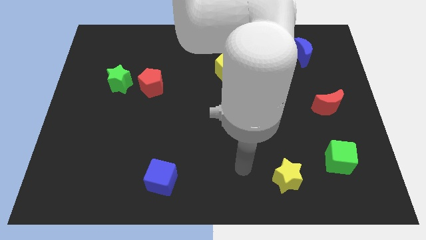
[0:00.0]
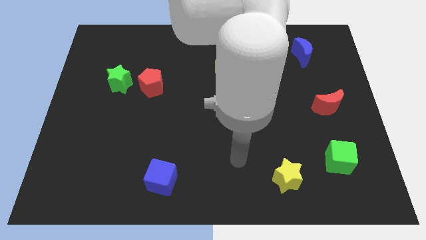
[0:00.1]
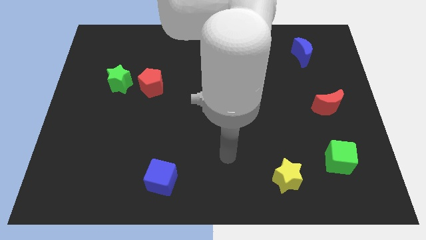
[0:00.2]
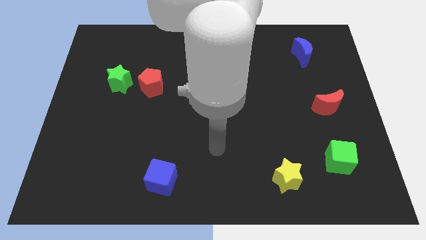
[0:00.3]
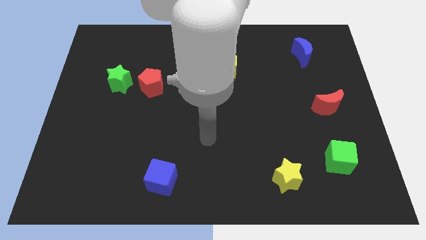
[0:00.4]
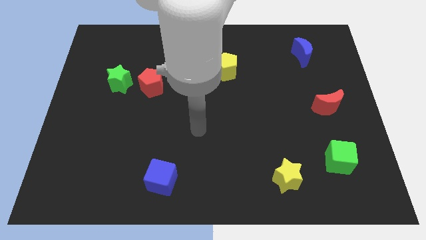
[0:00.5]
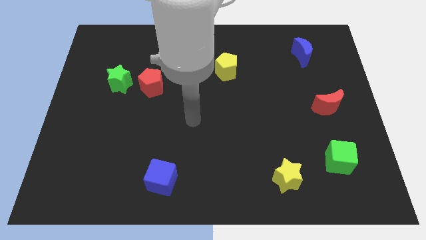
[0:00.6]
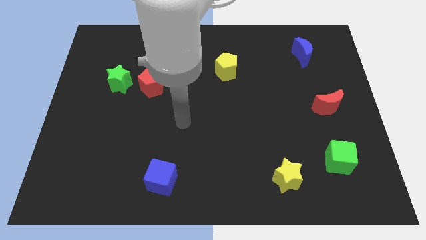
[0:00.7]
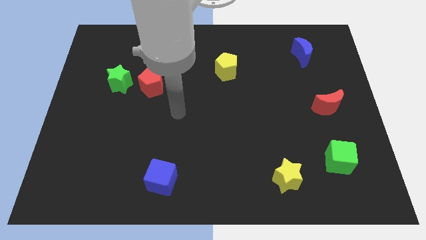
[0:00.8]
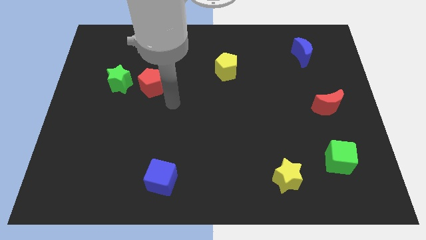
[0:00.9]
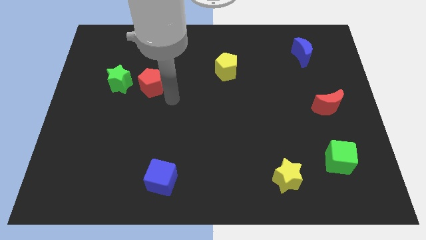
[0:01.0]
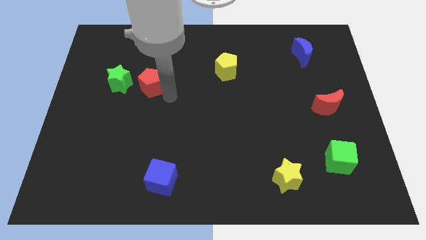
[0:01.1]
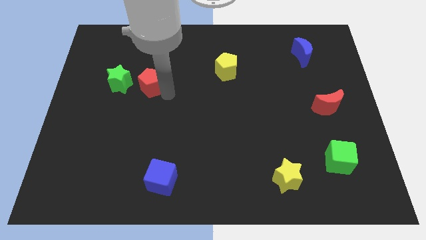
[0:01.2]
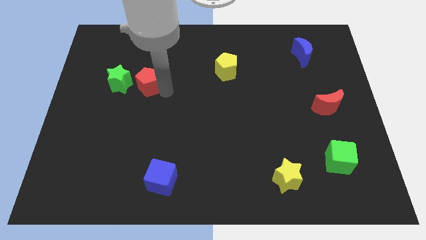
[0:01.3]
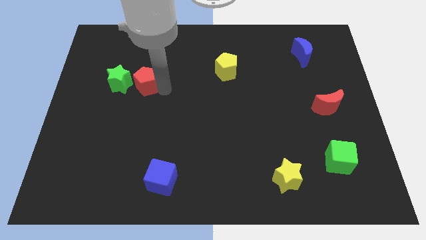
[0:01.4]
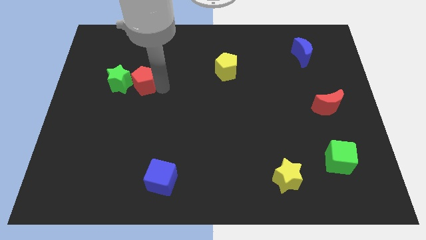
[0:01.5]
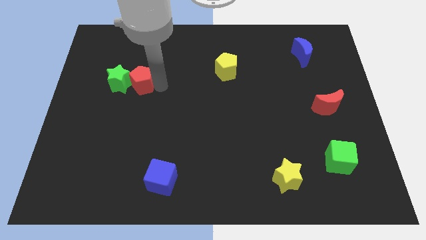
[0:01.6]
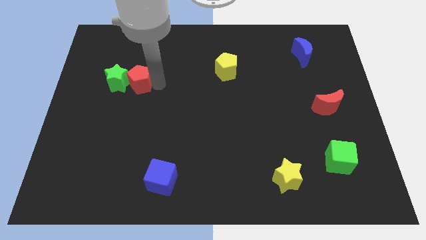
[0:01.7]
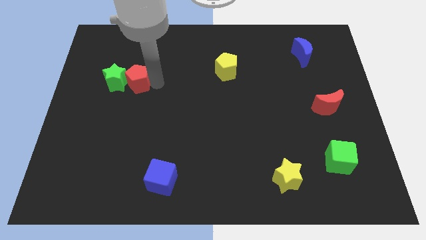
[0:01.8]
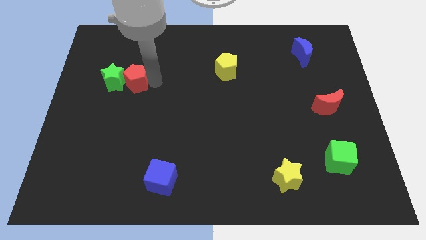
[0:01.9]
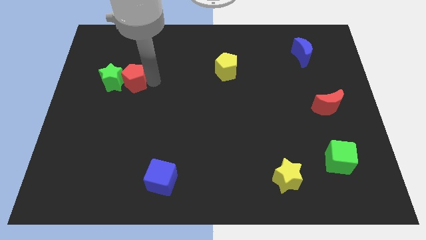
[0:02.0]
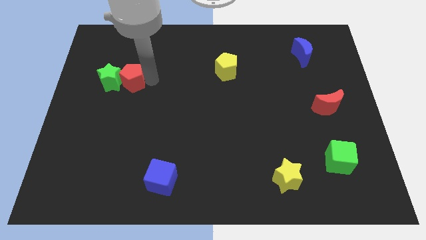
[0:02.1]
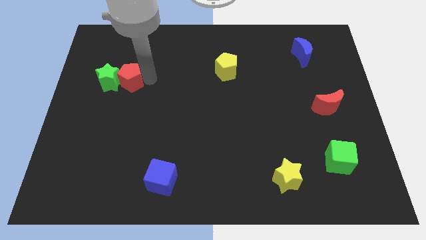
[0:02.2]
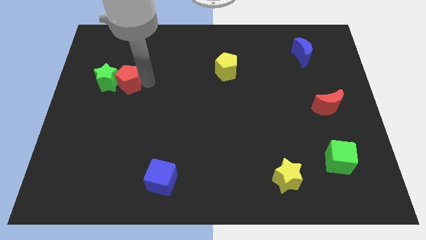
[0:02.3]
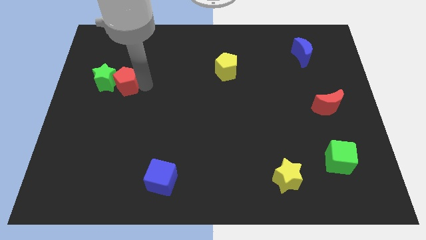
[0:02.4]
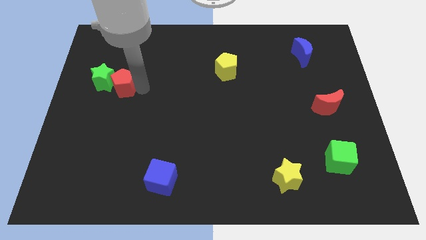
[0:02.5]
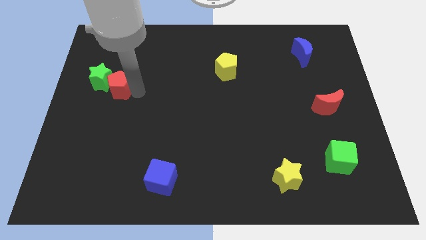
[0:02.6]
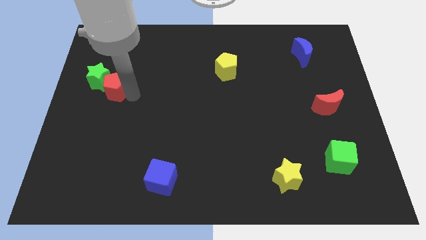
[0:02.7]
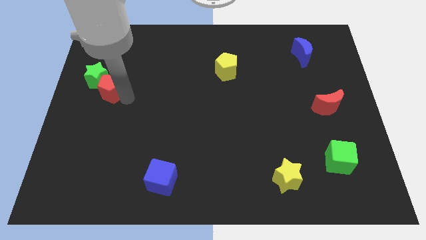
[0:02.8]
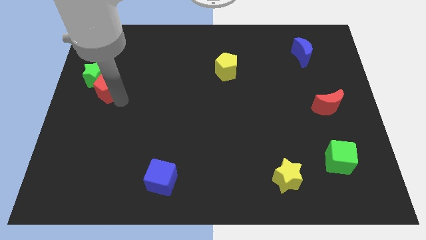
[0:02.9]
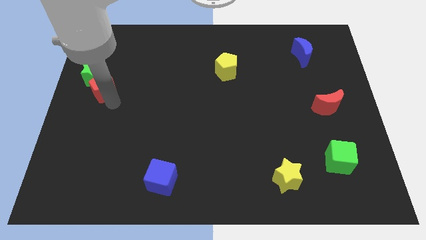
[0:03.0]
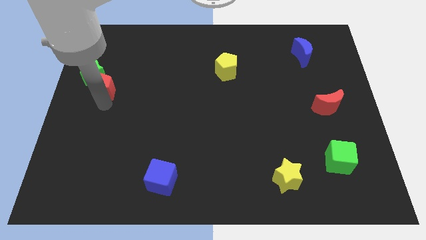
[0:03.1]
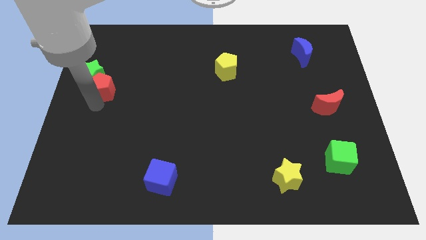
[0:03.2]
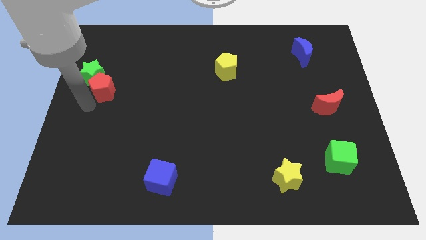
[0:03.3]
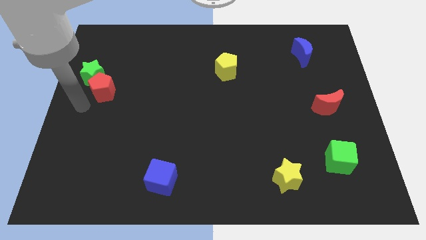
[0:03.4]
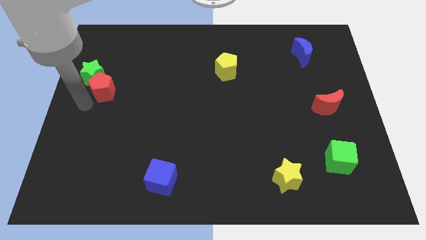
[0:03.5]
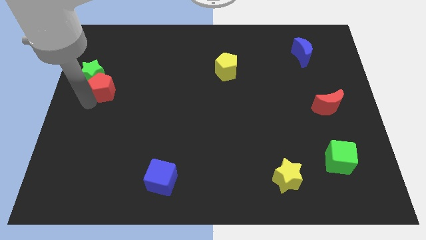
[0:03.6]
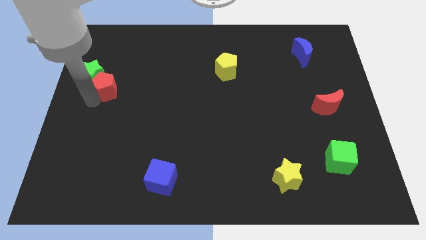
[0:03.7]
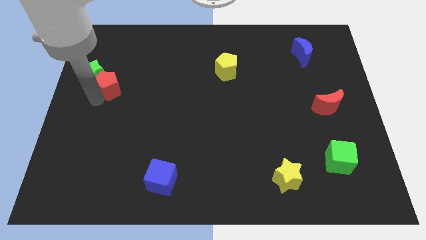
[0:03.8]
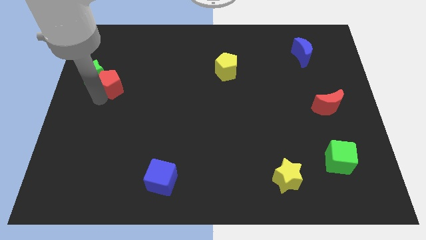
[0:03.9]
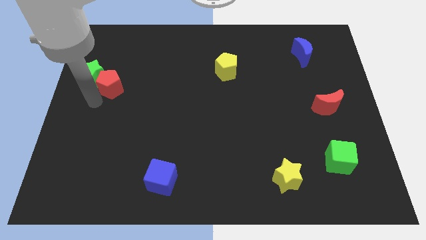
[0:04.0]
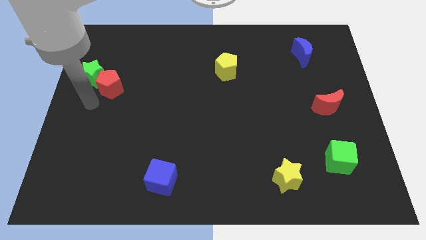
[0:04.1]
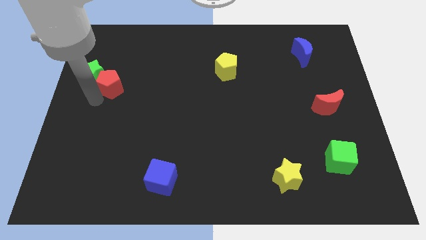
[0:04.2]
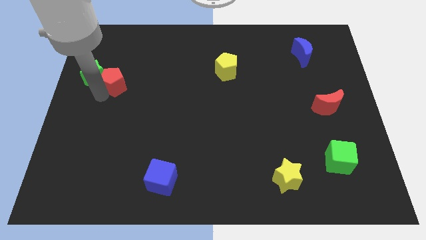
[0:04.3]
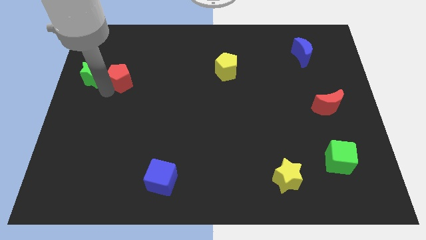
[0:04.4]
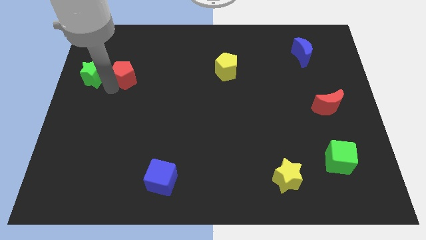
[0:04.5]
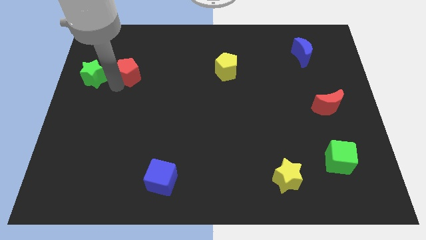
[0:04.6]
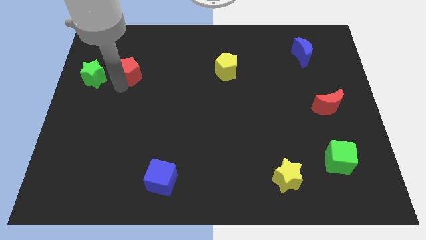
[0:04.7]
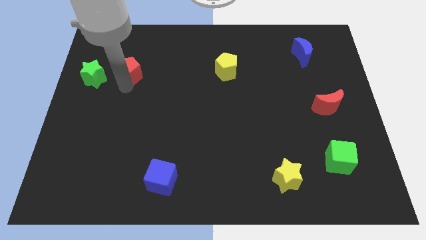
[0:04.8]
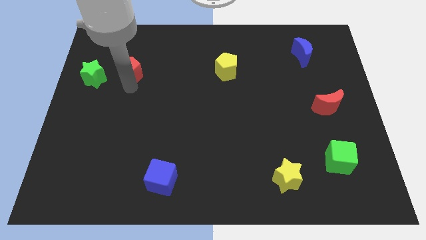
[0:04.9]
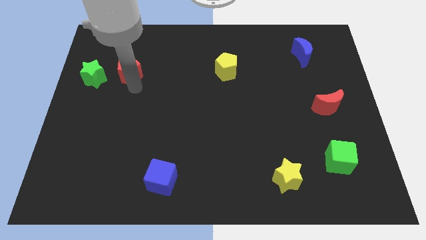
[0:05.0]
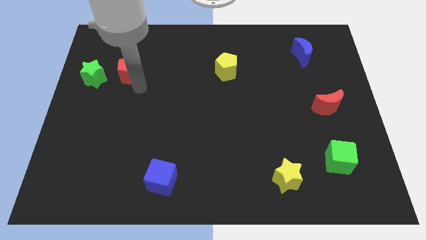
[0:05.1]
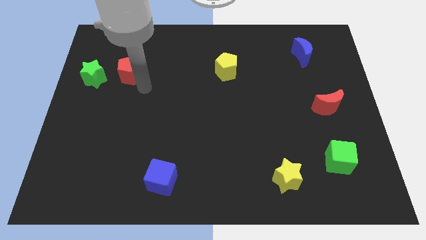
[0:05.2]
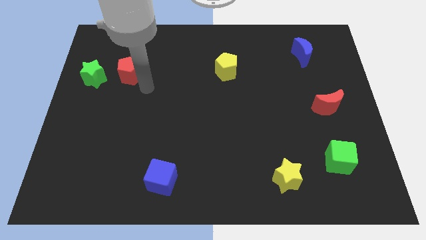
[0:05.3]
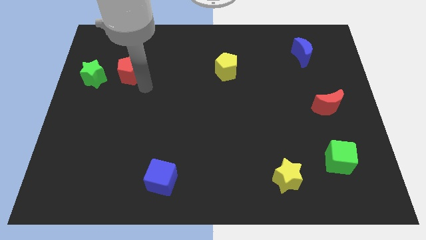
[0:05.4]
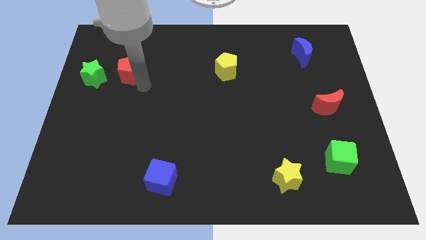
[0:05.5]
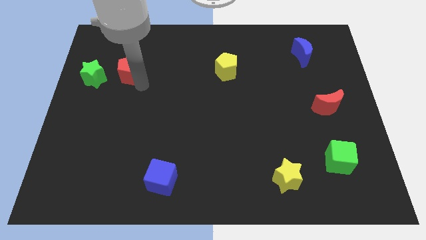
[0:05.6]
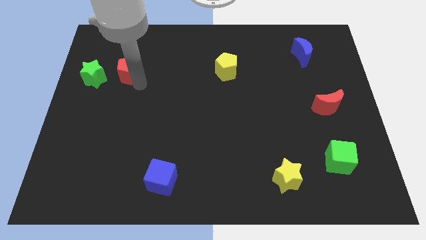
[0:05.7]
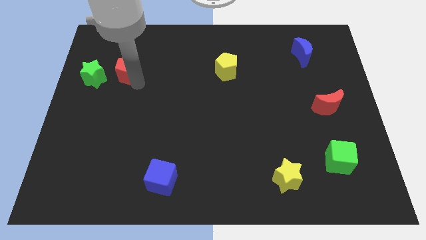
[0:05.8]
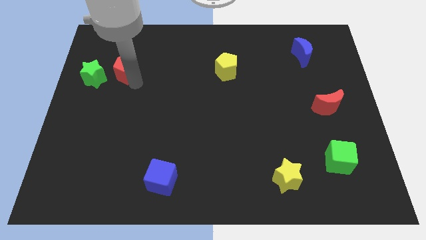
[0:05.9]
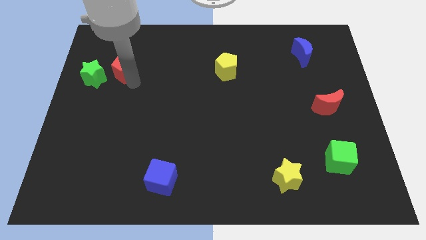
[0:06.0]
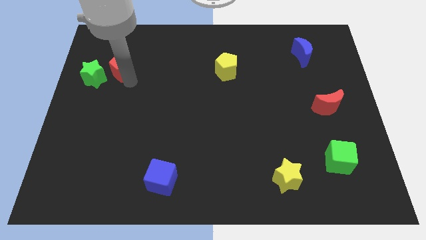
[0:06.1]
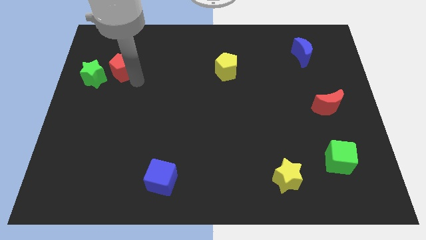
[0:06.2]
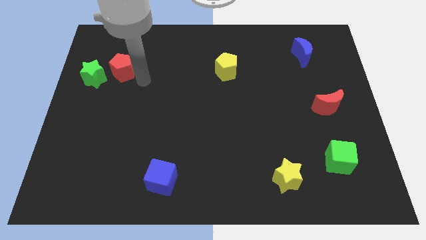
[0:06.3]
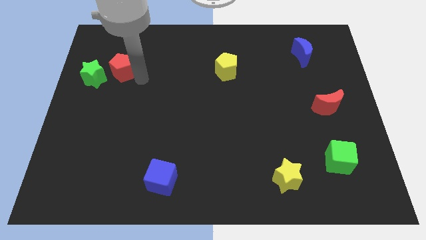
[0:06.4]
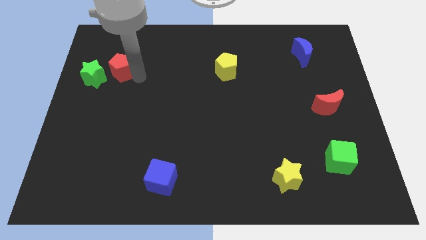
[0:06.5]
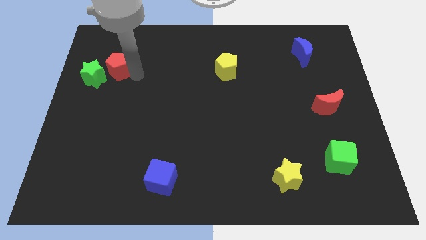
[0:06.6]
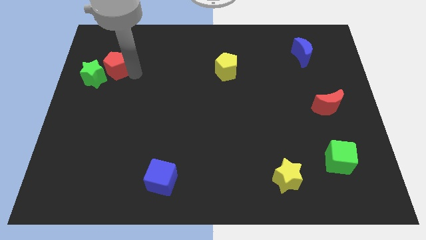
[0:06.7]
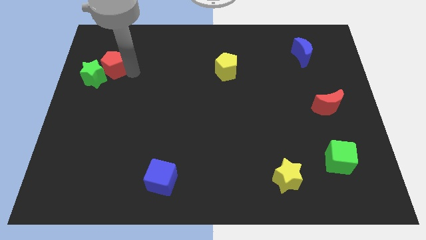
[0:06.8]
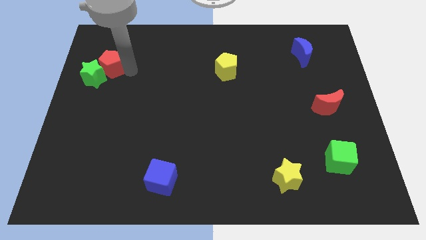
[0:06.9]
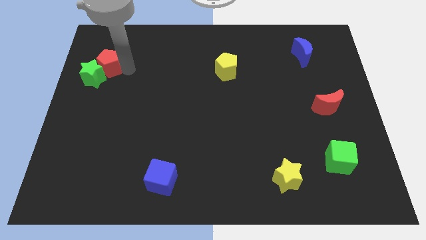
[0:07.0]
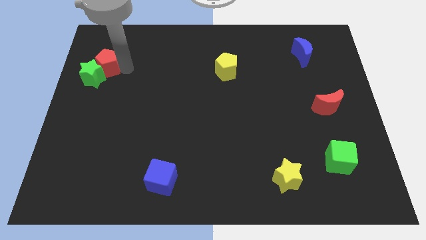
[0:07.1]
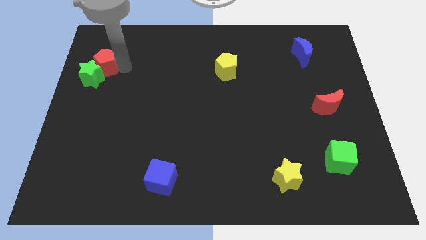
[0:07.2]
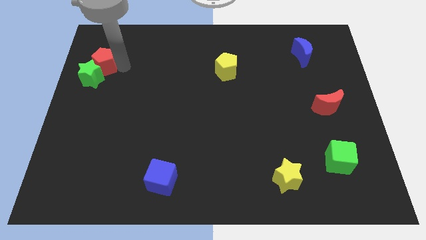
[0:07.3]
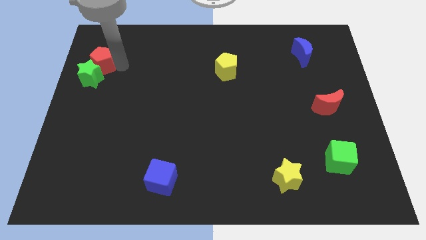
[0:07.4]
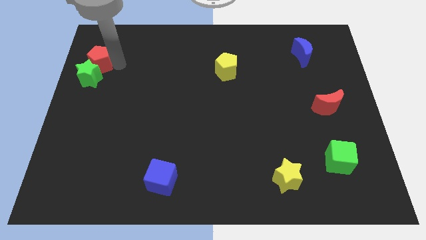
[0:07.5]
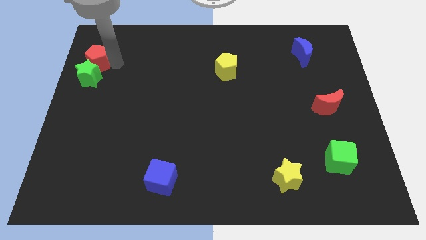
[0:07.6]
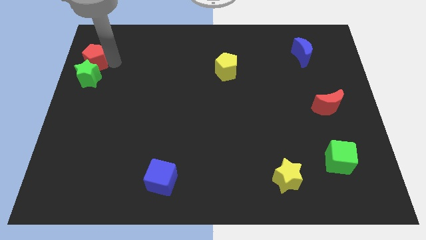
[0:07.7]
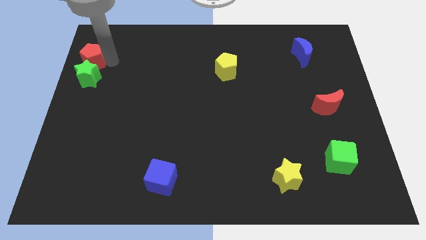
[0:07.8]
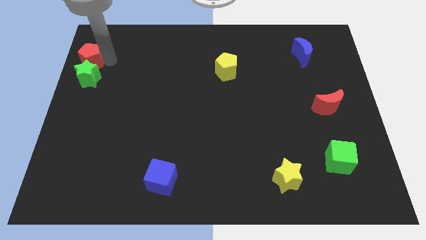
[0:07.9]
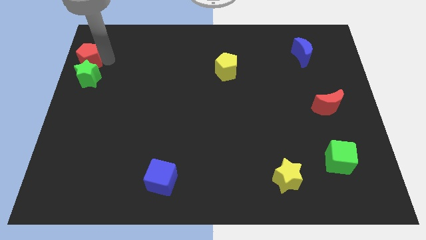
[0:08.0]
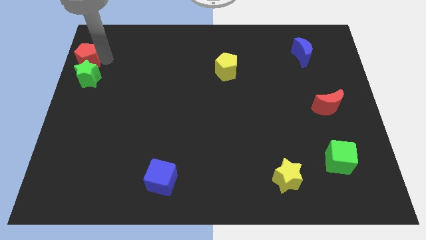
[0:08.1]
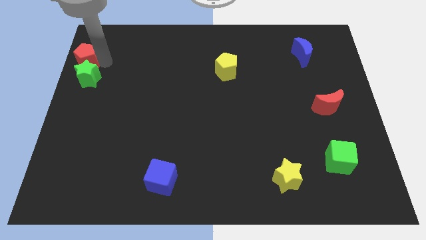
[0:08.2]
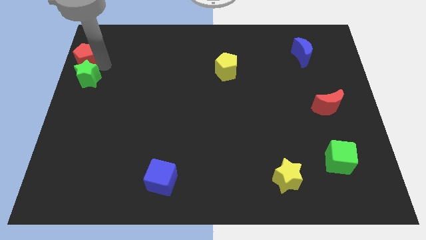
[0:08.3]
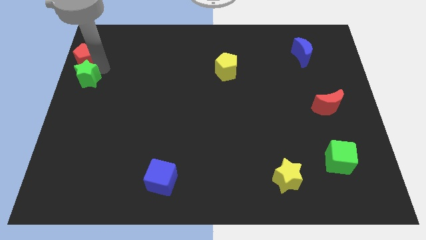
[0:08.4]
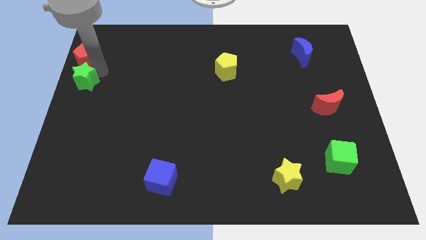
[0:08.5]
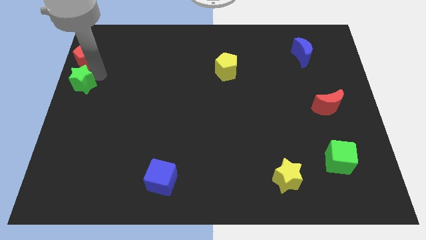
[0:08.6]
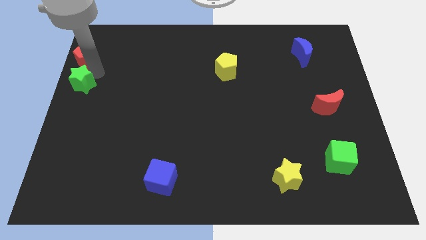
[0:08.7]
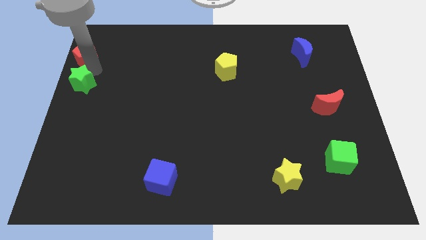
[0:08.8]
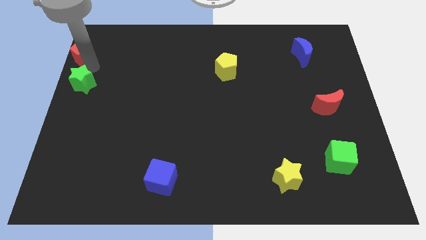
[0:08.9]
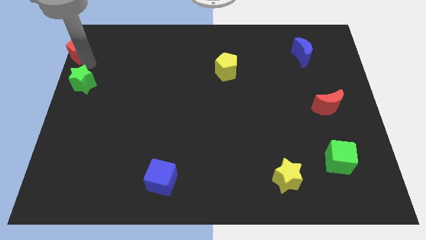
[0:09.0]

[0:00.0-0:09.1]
put the red pentagon to the top left corner
